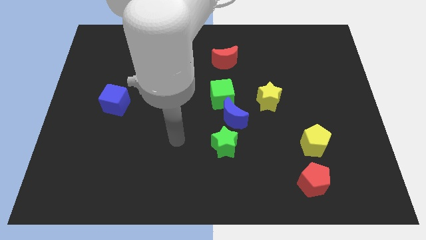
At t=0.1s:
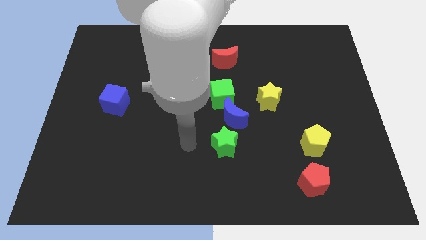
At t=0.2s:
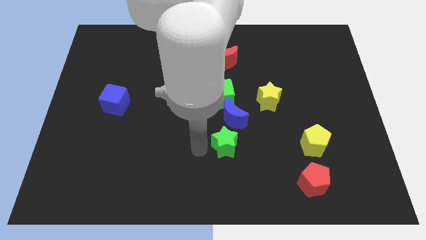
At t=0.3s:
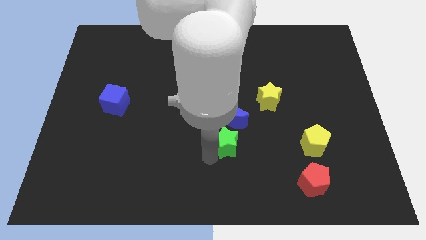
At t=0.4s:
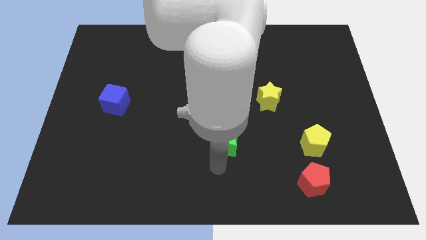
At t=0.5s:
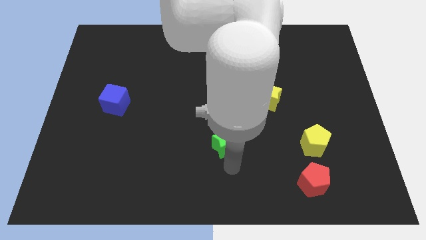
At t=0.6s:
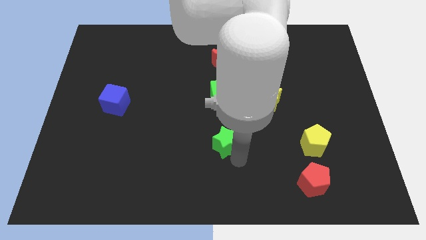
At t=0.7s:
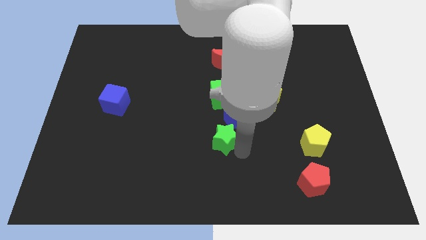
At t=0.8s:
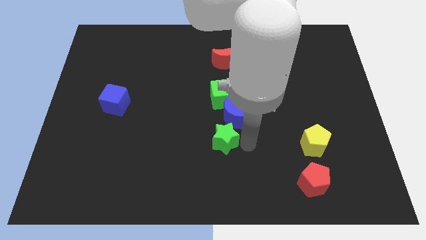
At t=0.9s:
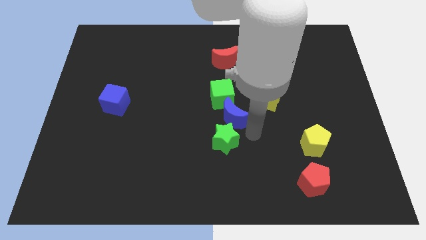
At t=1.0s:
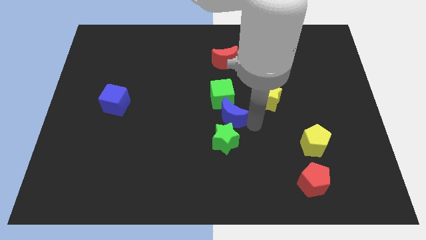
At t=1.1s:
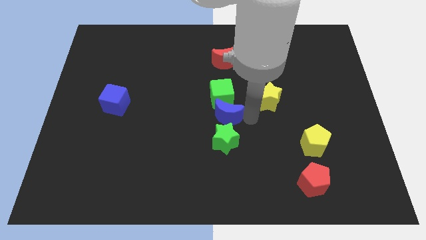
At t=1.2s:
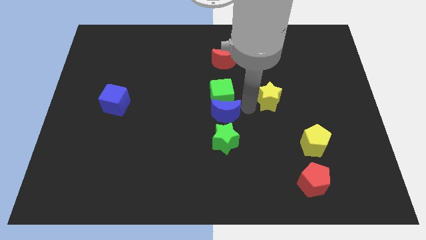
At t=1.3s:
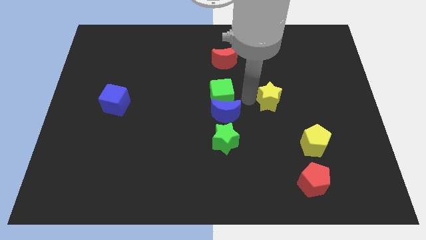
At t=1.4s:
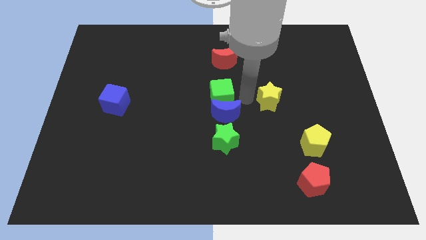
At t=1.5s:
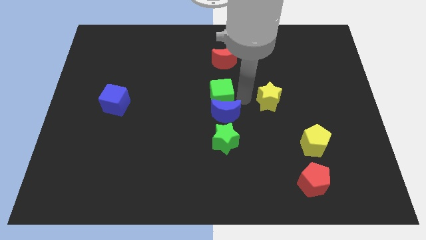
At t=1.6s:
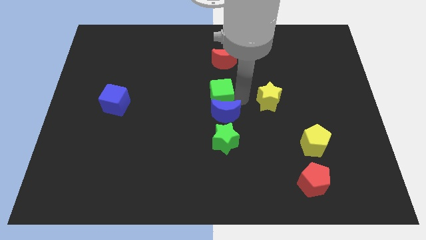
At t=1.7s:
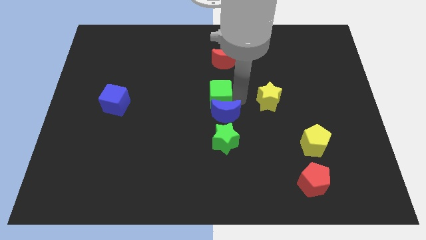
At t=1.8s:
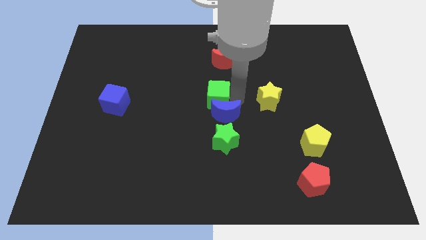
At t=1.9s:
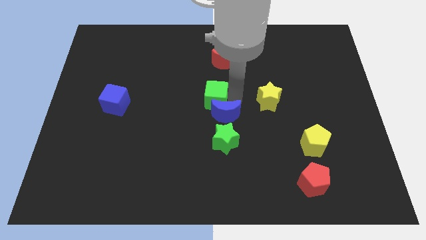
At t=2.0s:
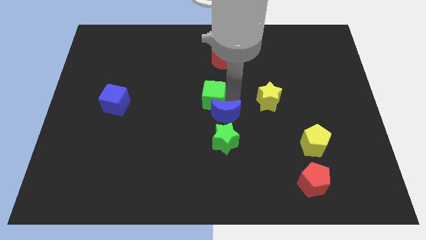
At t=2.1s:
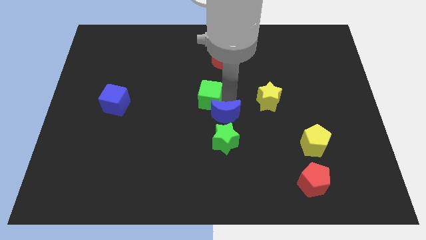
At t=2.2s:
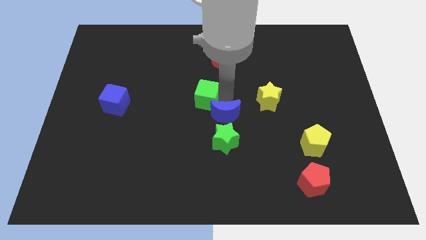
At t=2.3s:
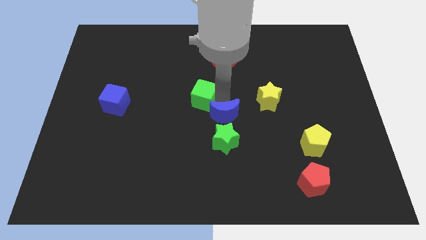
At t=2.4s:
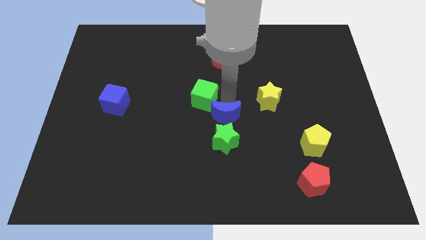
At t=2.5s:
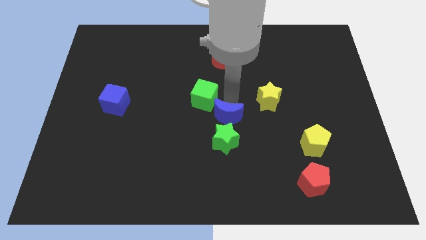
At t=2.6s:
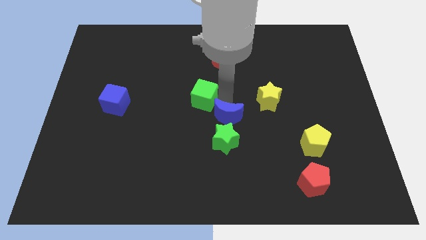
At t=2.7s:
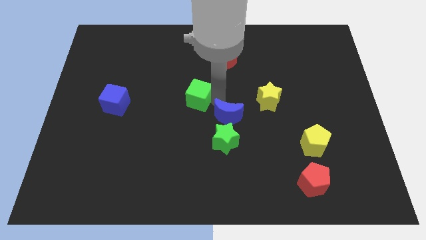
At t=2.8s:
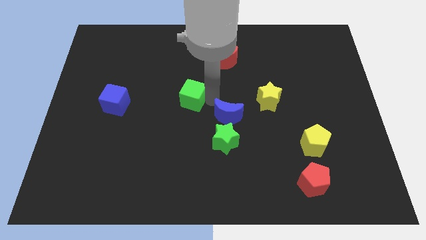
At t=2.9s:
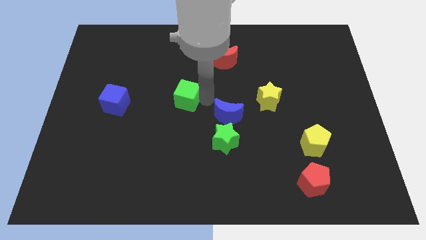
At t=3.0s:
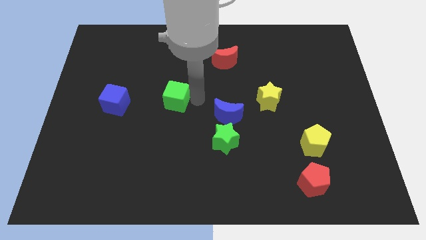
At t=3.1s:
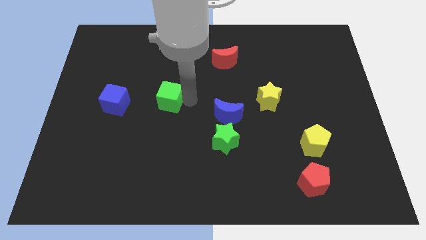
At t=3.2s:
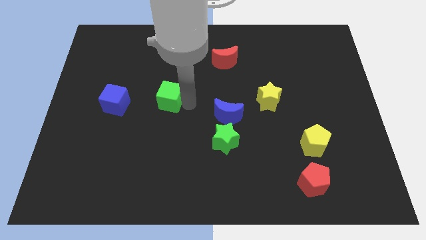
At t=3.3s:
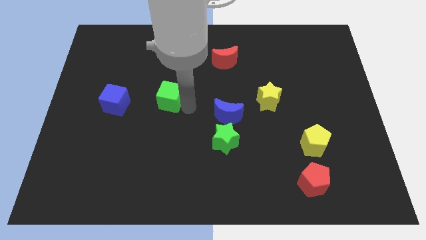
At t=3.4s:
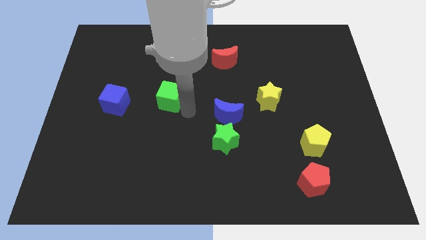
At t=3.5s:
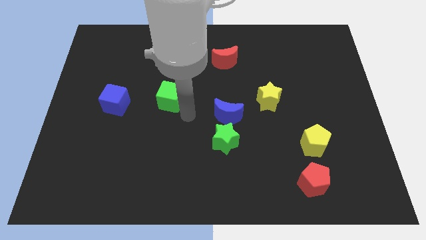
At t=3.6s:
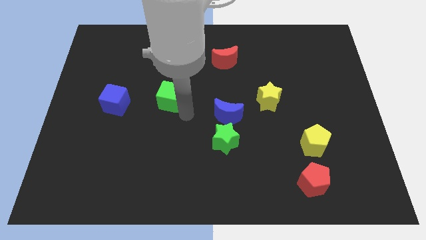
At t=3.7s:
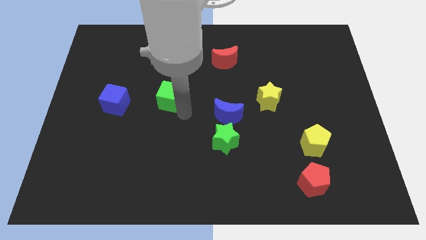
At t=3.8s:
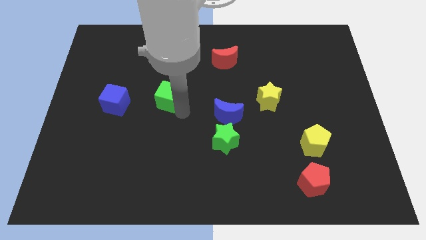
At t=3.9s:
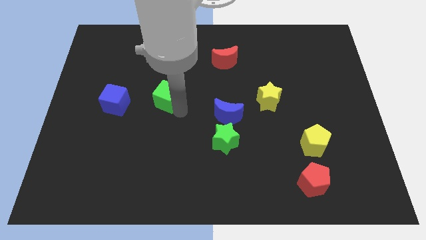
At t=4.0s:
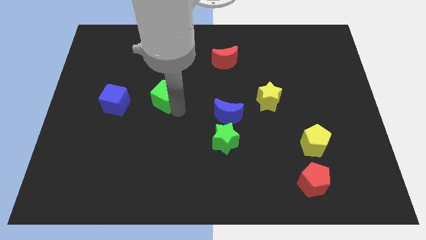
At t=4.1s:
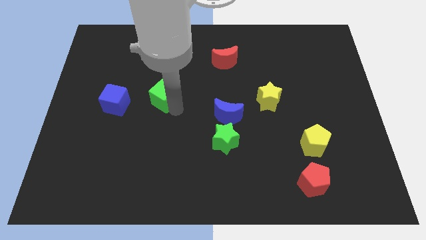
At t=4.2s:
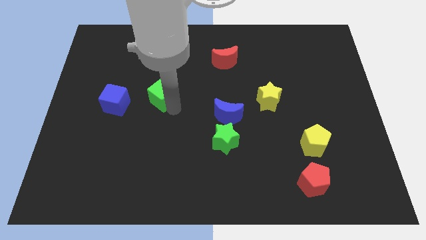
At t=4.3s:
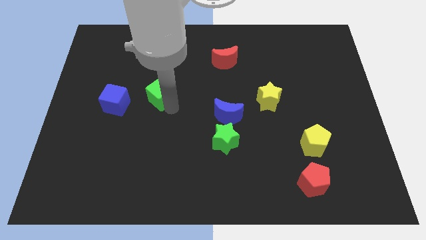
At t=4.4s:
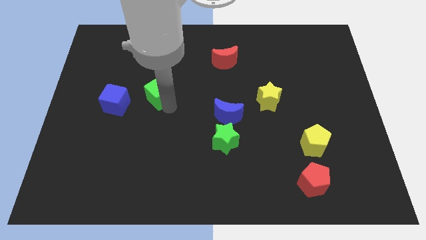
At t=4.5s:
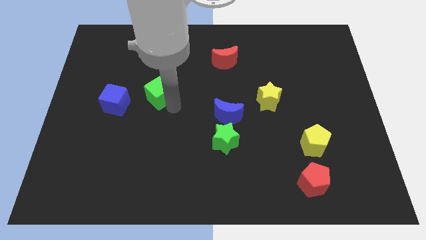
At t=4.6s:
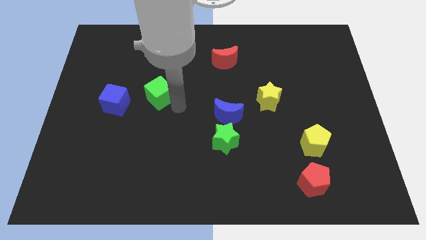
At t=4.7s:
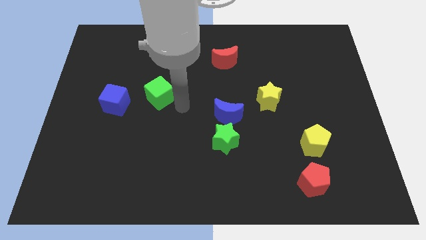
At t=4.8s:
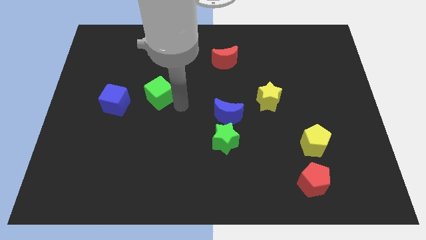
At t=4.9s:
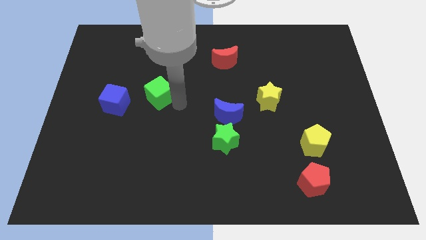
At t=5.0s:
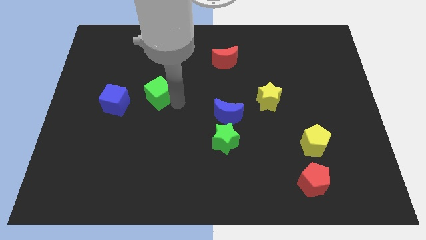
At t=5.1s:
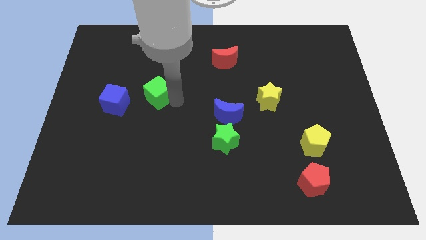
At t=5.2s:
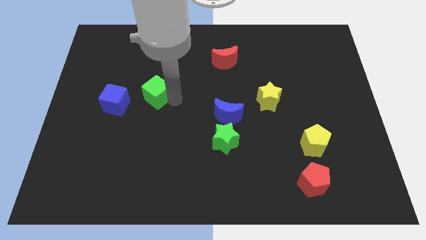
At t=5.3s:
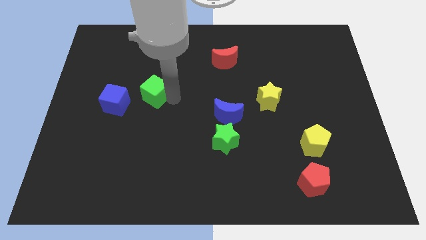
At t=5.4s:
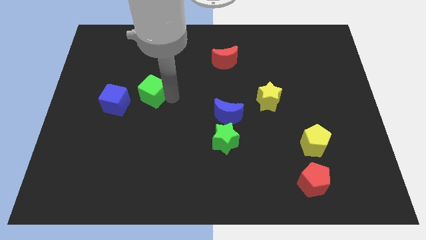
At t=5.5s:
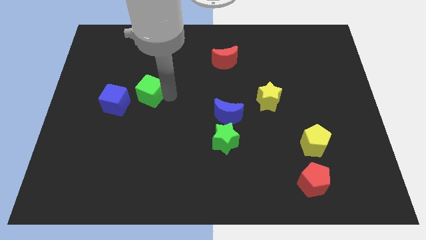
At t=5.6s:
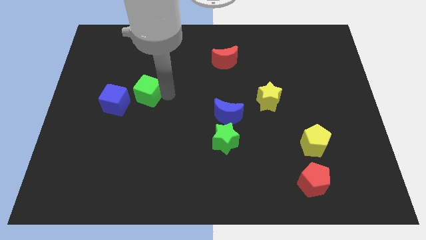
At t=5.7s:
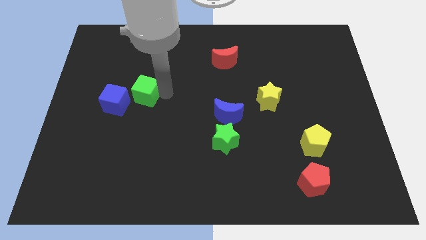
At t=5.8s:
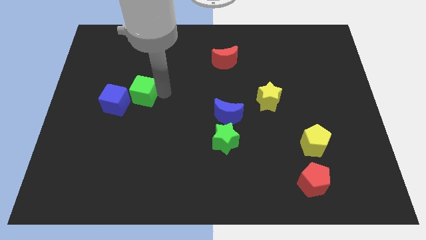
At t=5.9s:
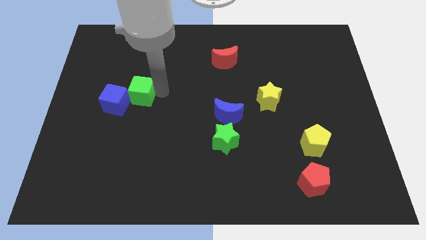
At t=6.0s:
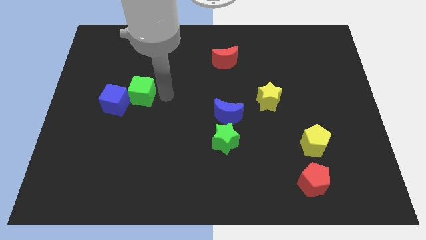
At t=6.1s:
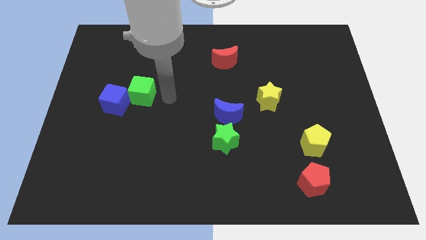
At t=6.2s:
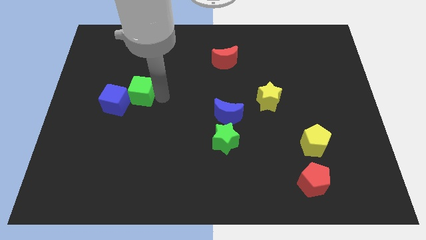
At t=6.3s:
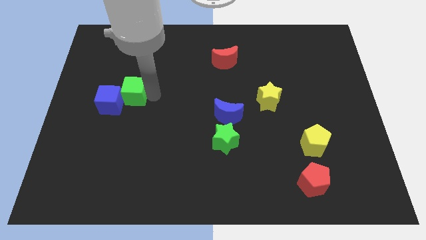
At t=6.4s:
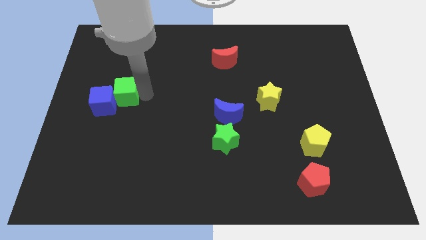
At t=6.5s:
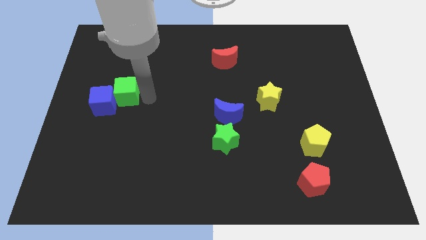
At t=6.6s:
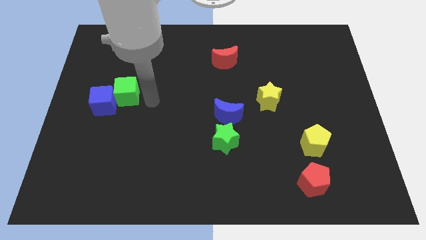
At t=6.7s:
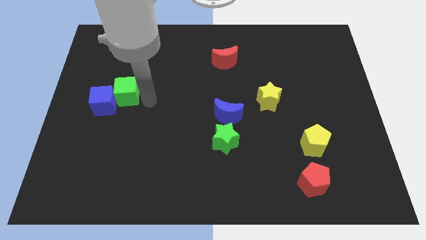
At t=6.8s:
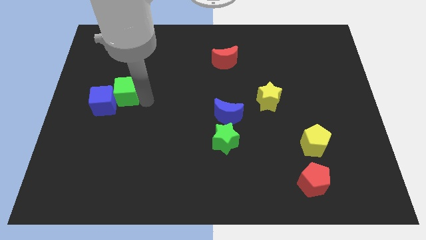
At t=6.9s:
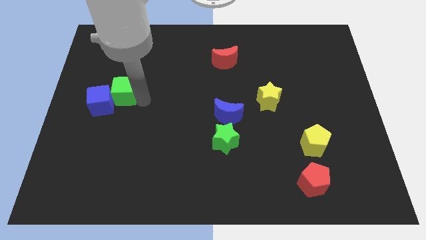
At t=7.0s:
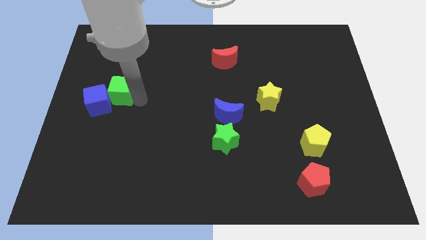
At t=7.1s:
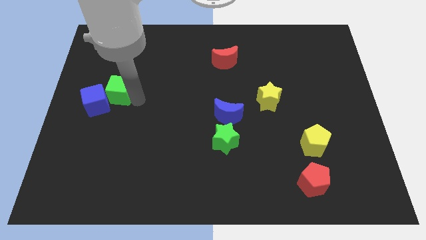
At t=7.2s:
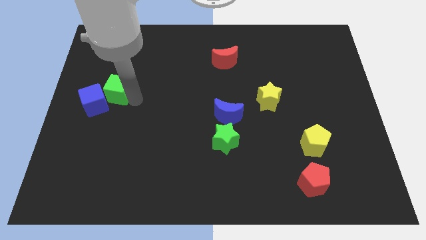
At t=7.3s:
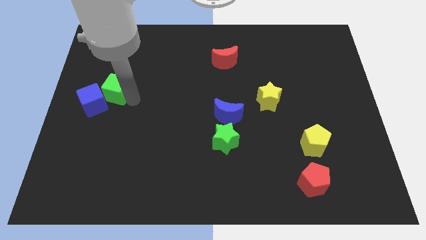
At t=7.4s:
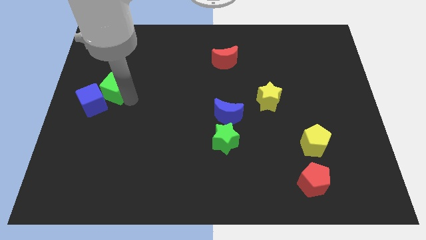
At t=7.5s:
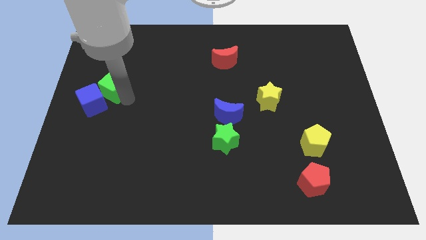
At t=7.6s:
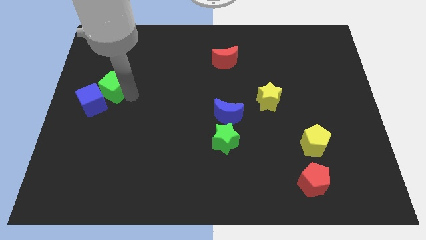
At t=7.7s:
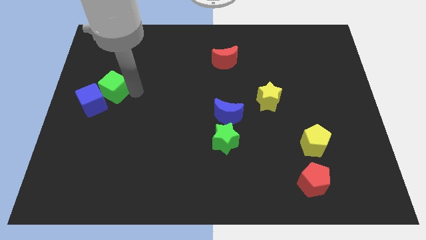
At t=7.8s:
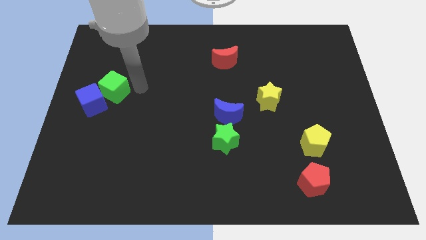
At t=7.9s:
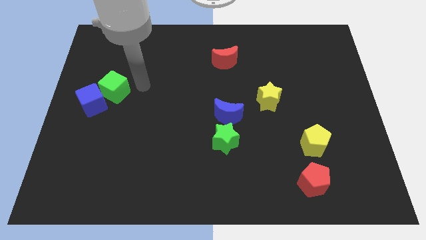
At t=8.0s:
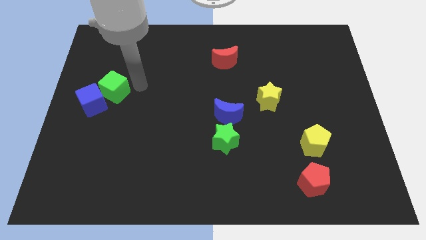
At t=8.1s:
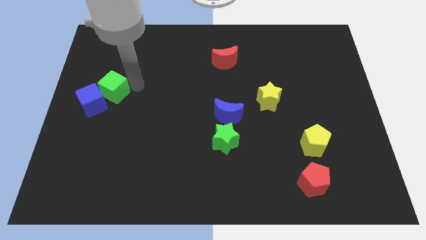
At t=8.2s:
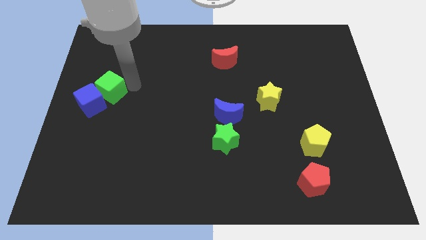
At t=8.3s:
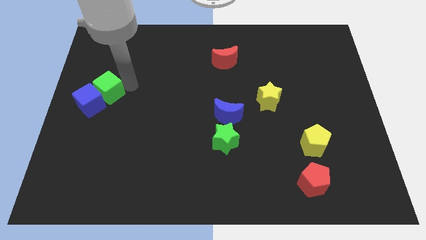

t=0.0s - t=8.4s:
slide the green cube to the center left
